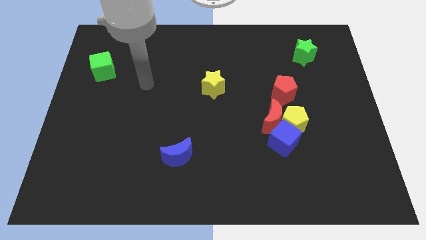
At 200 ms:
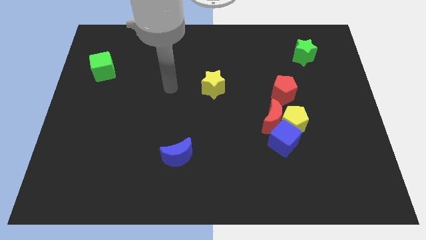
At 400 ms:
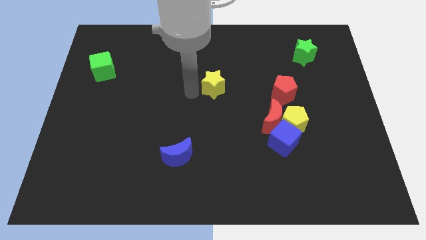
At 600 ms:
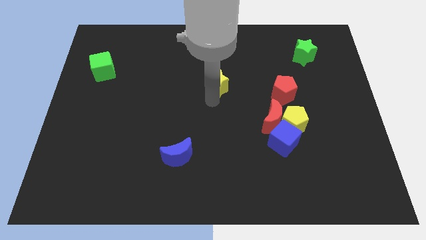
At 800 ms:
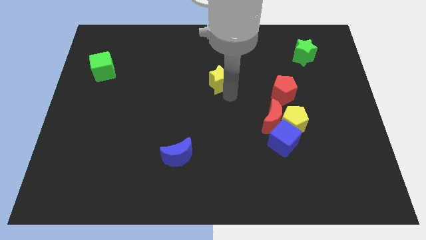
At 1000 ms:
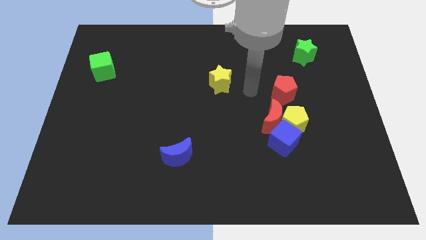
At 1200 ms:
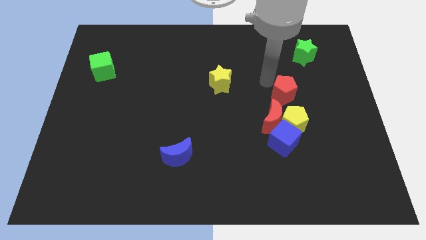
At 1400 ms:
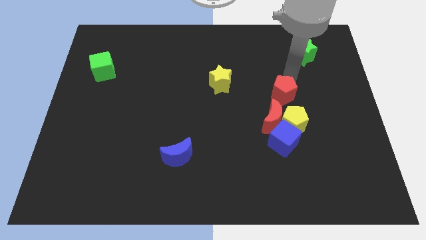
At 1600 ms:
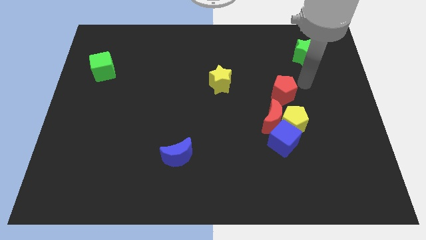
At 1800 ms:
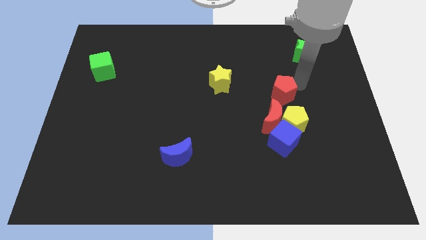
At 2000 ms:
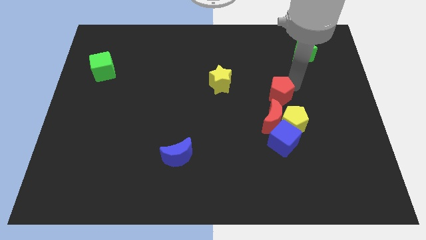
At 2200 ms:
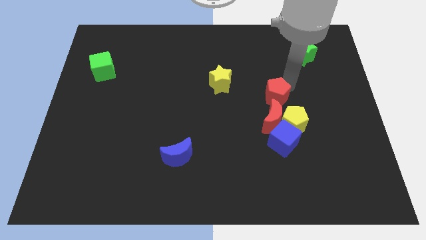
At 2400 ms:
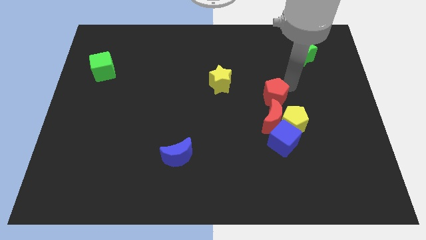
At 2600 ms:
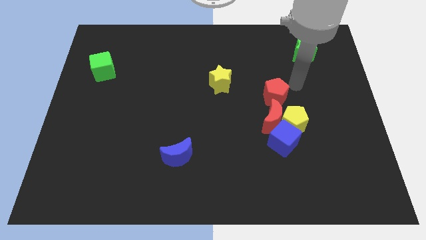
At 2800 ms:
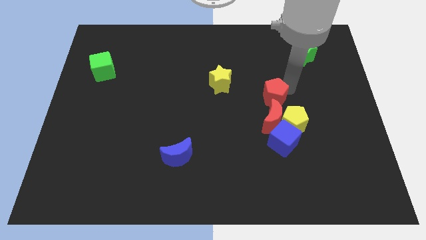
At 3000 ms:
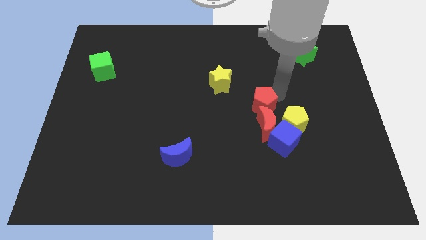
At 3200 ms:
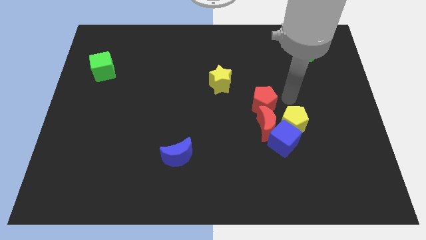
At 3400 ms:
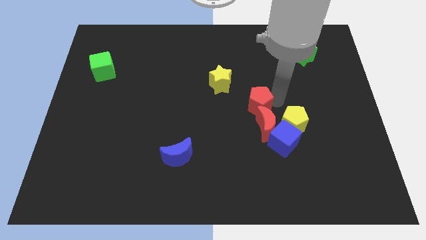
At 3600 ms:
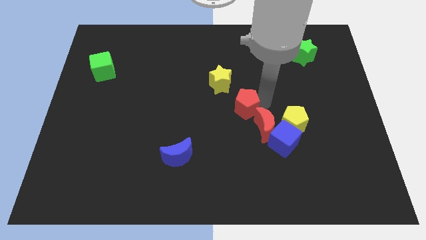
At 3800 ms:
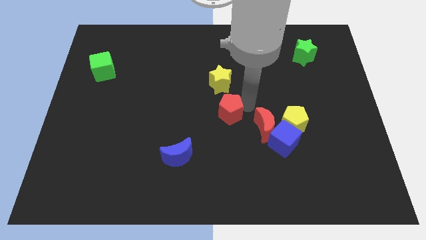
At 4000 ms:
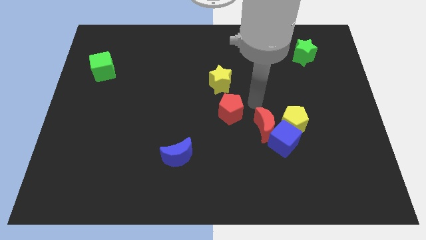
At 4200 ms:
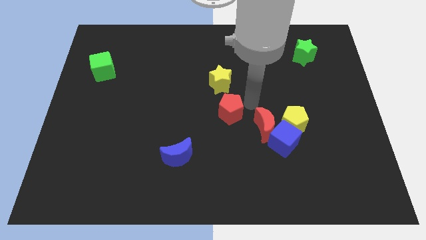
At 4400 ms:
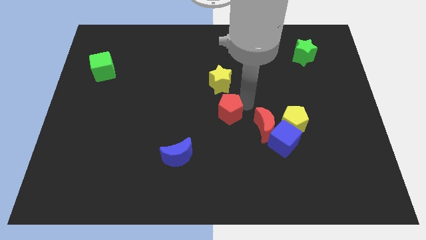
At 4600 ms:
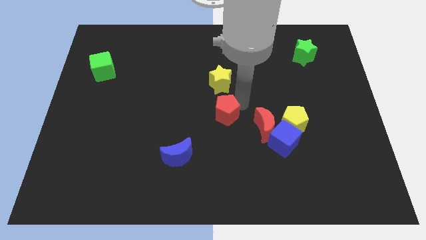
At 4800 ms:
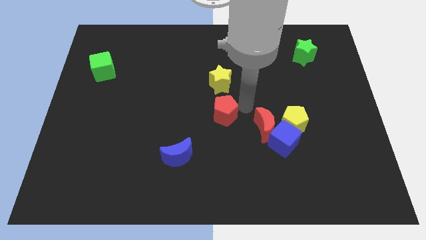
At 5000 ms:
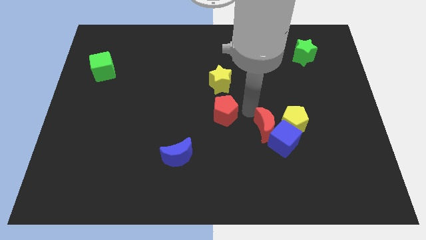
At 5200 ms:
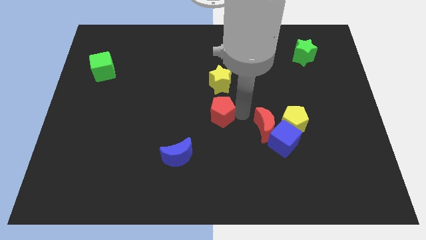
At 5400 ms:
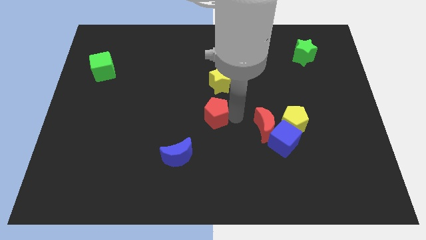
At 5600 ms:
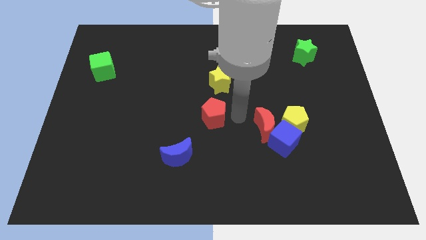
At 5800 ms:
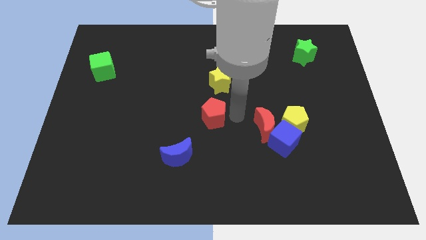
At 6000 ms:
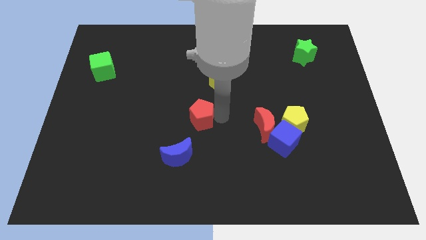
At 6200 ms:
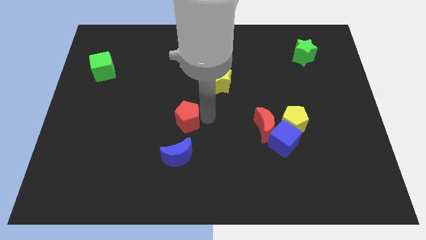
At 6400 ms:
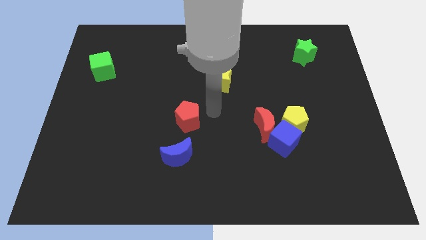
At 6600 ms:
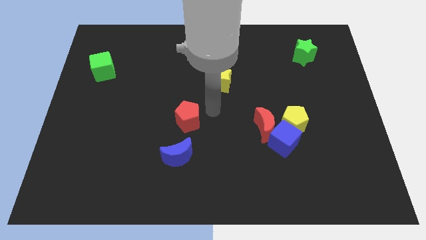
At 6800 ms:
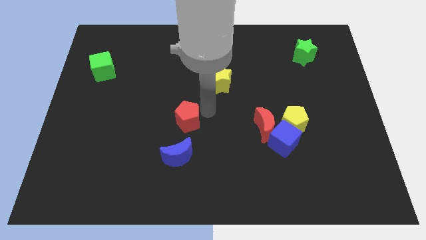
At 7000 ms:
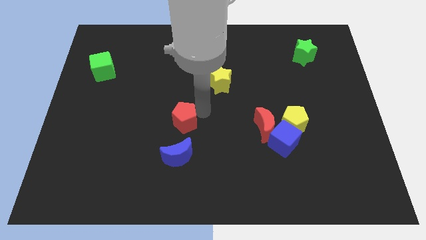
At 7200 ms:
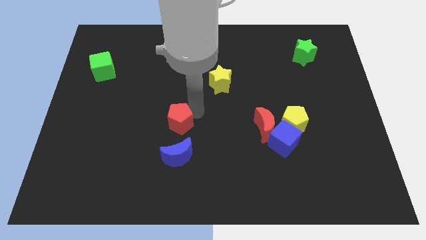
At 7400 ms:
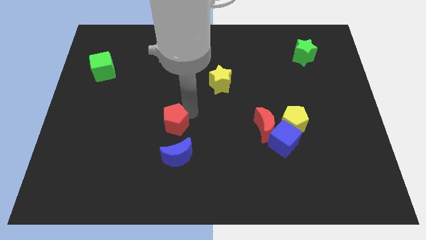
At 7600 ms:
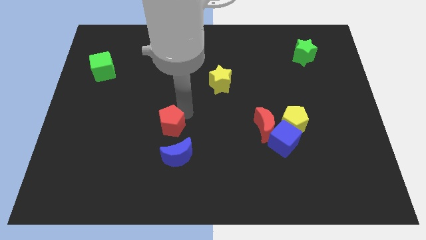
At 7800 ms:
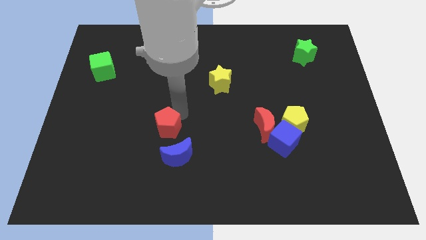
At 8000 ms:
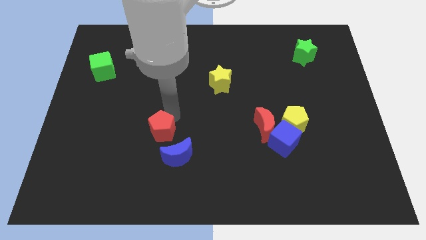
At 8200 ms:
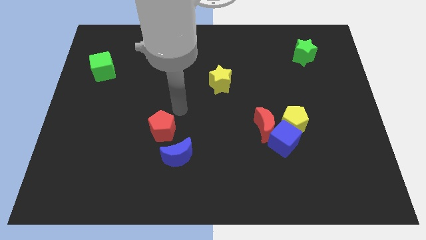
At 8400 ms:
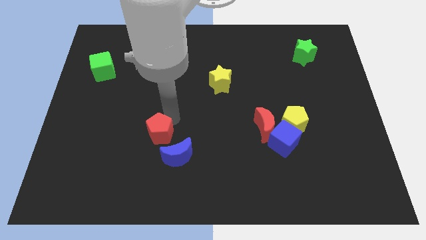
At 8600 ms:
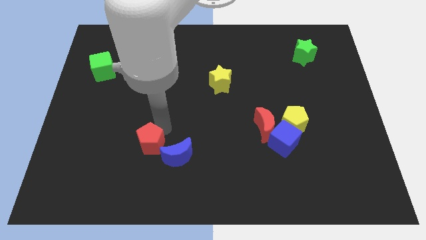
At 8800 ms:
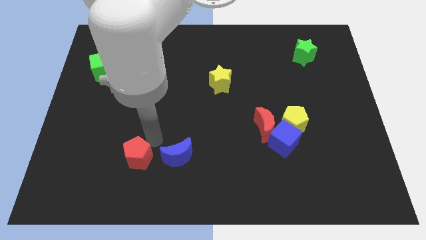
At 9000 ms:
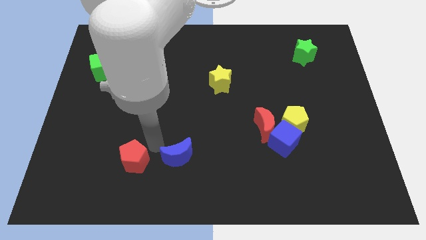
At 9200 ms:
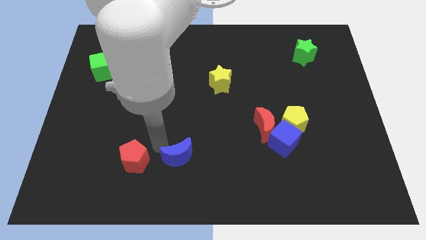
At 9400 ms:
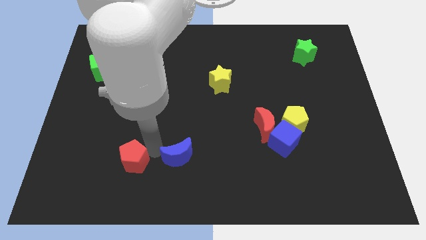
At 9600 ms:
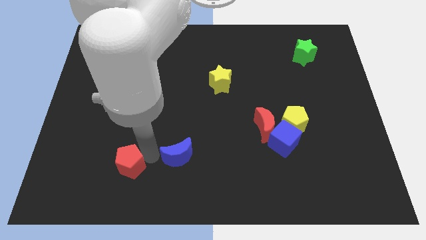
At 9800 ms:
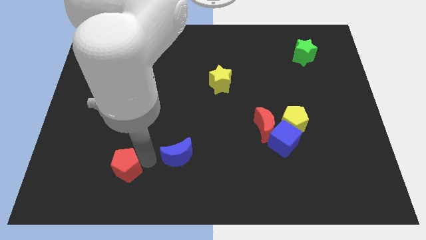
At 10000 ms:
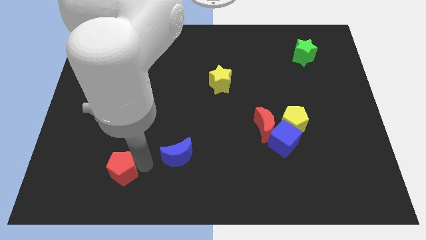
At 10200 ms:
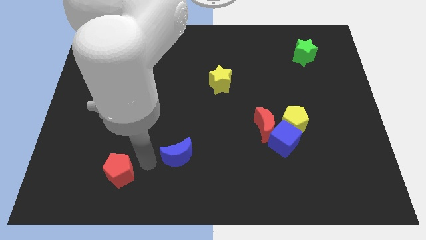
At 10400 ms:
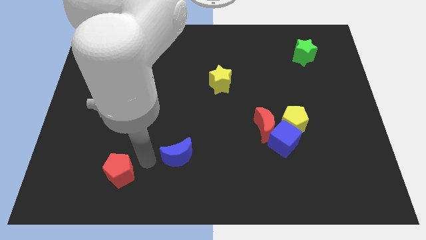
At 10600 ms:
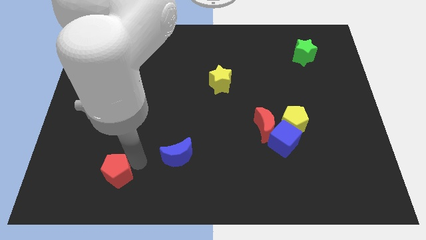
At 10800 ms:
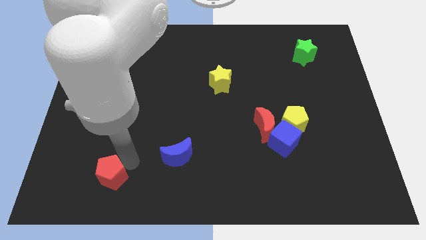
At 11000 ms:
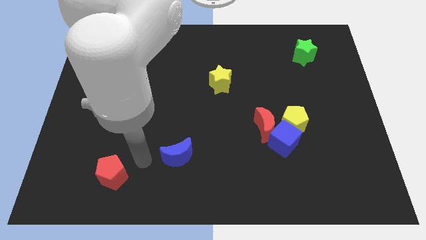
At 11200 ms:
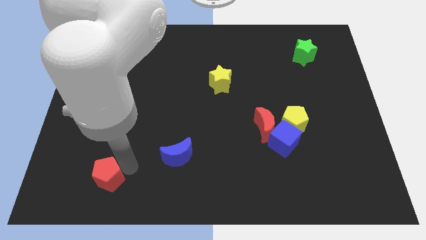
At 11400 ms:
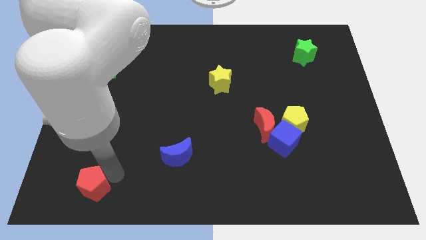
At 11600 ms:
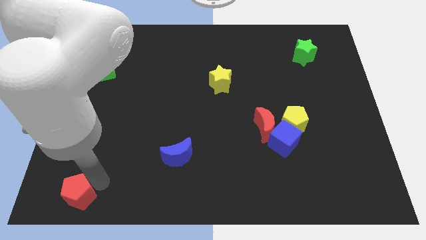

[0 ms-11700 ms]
move the red pentagon to the bottom left

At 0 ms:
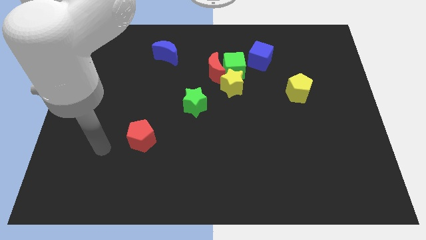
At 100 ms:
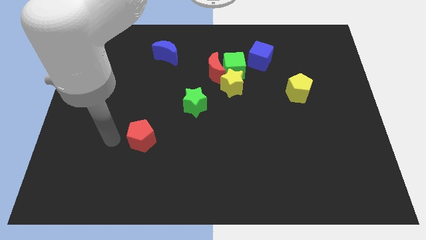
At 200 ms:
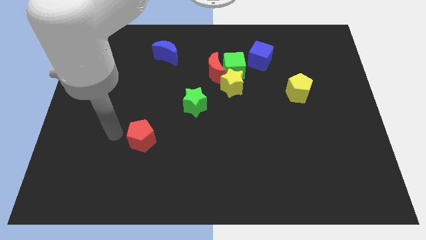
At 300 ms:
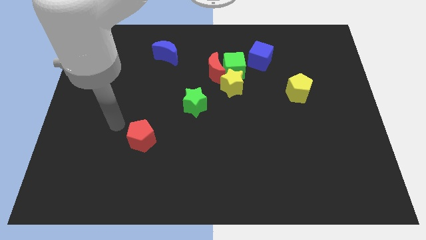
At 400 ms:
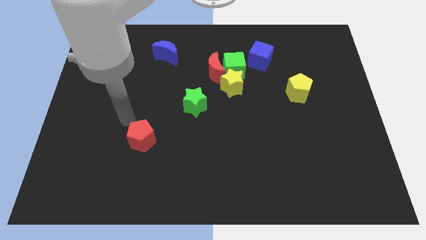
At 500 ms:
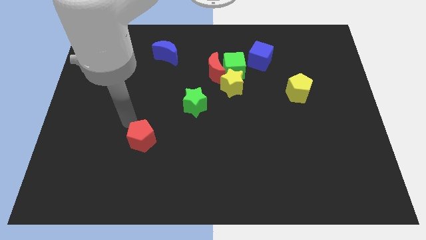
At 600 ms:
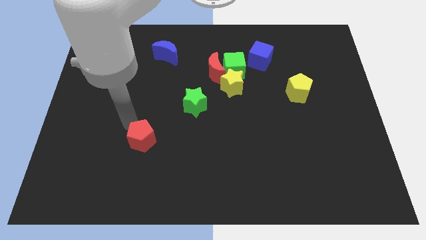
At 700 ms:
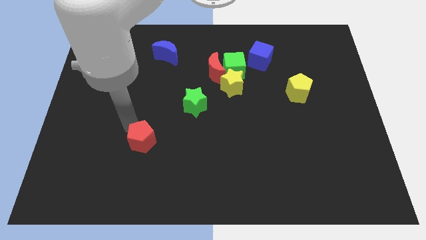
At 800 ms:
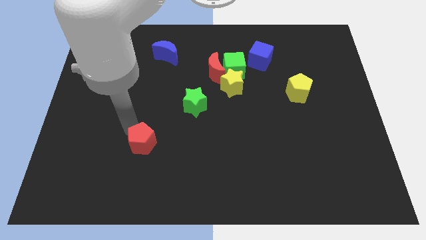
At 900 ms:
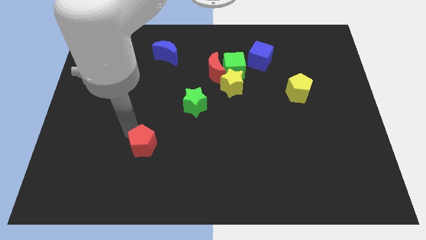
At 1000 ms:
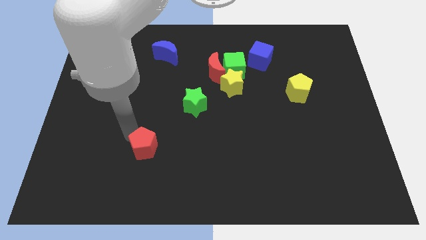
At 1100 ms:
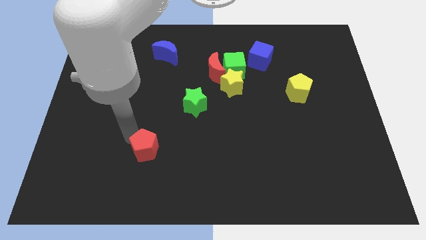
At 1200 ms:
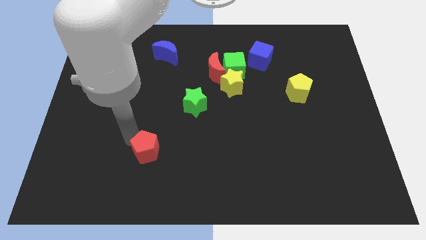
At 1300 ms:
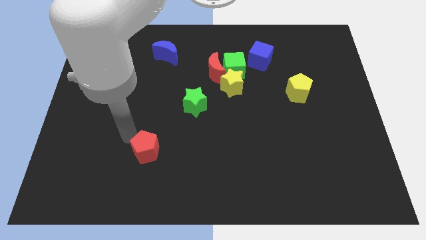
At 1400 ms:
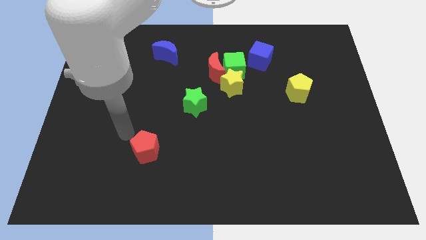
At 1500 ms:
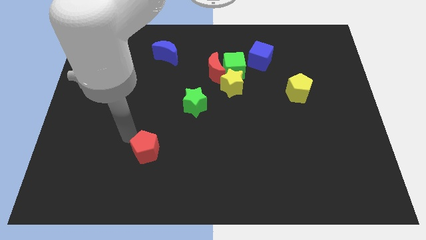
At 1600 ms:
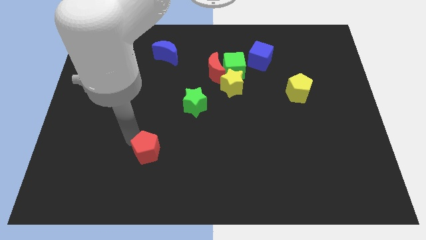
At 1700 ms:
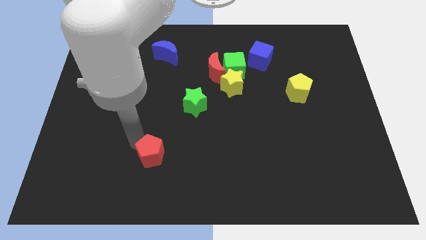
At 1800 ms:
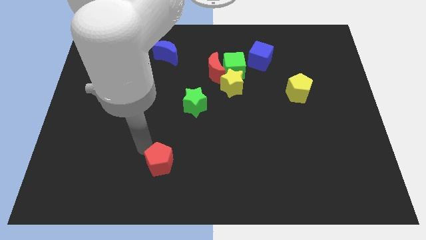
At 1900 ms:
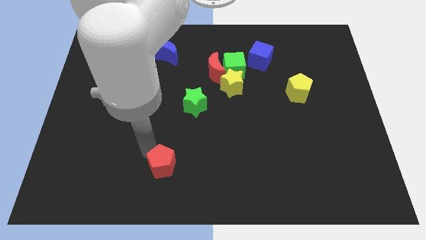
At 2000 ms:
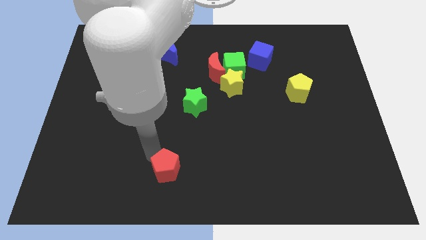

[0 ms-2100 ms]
push the red pentagon to the bottom side

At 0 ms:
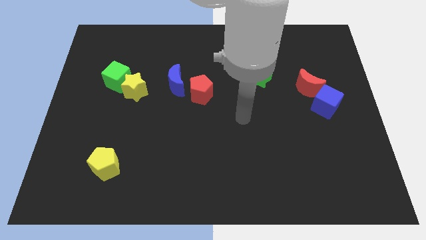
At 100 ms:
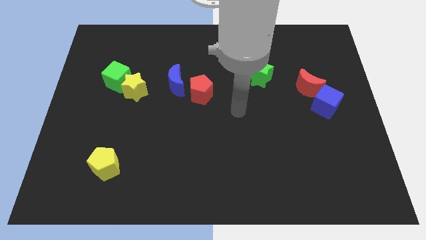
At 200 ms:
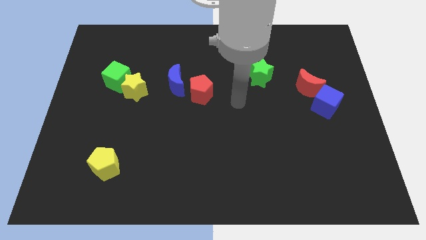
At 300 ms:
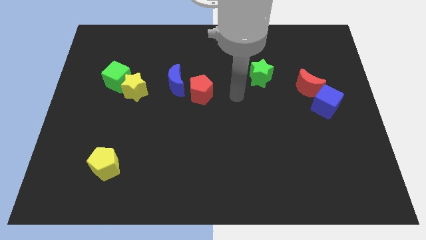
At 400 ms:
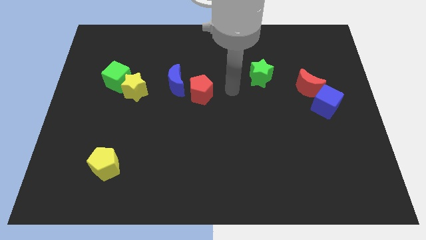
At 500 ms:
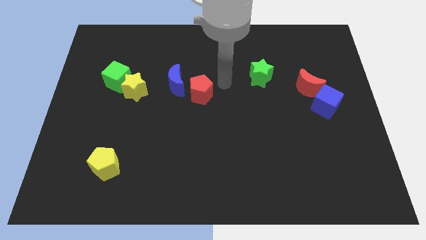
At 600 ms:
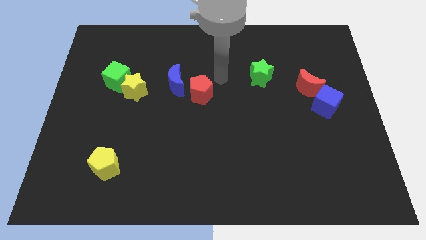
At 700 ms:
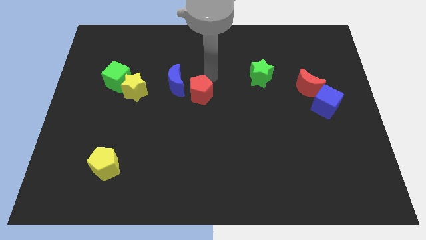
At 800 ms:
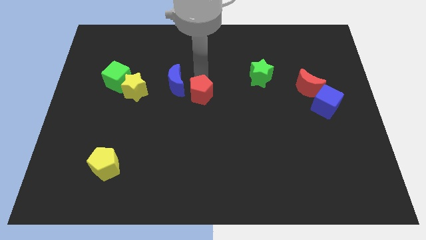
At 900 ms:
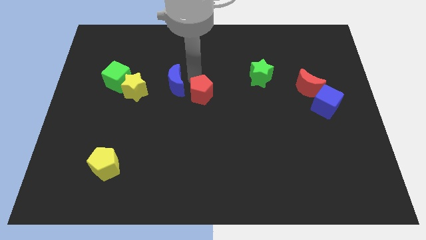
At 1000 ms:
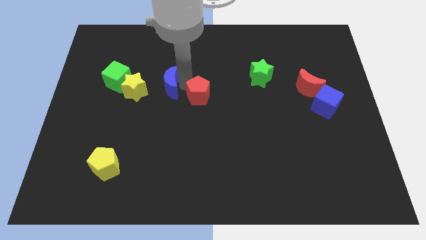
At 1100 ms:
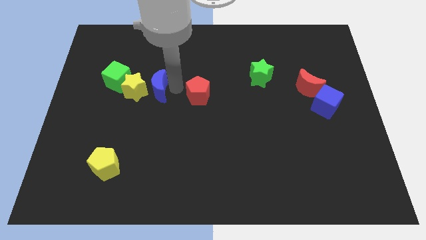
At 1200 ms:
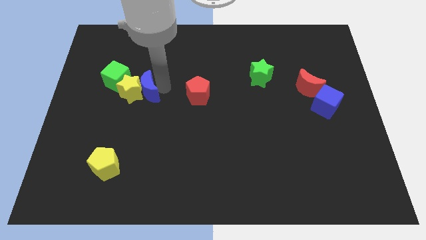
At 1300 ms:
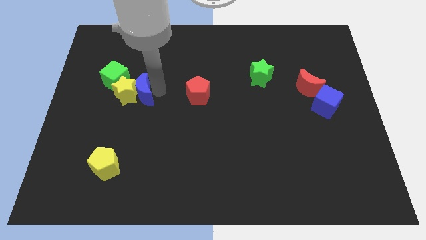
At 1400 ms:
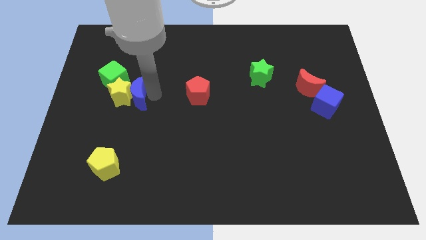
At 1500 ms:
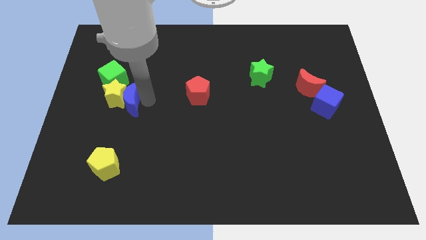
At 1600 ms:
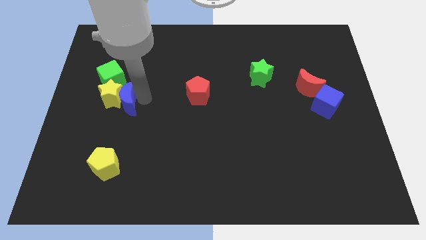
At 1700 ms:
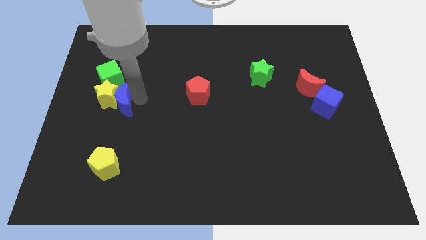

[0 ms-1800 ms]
push the yellow star to the left side of the board
